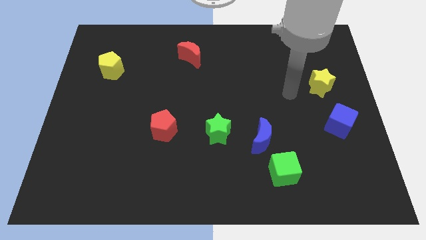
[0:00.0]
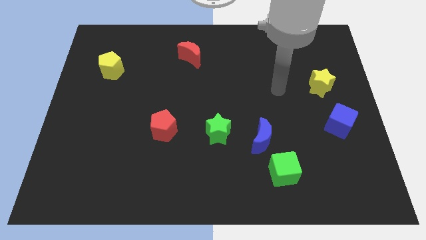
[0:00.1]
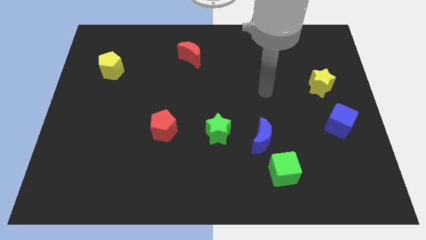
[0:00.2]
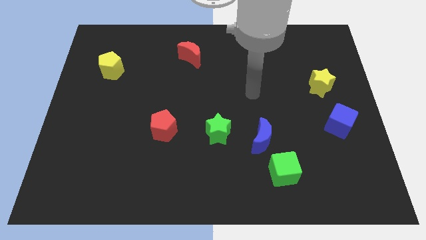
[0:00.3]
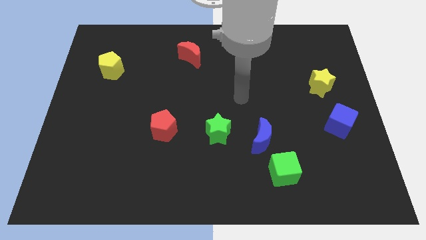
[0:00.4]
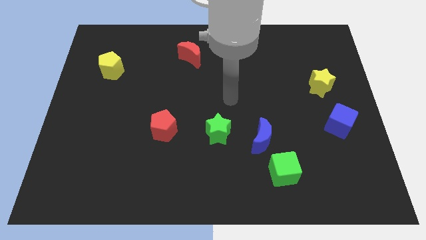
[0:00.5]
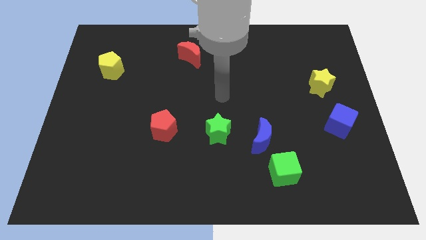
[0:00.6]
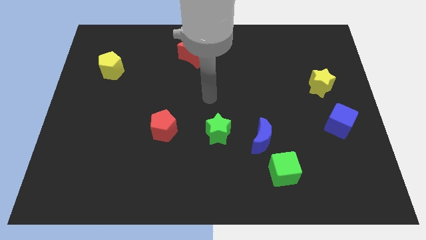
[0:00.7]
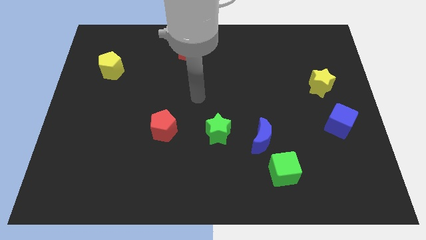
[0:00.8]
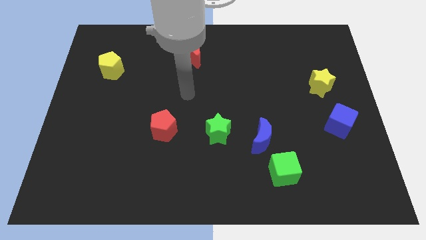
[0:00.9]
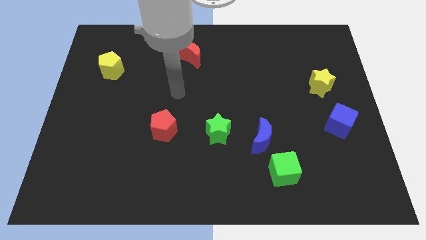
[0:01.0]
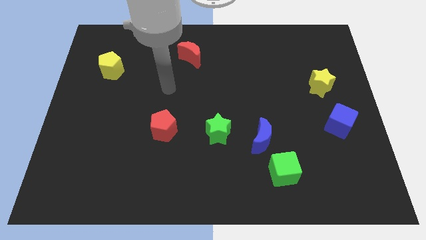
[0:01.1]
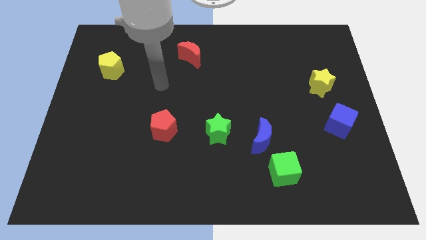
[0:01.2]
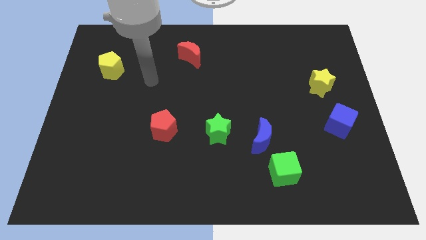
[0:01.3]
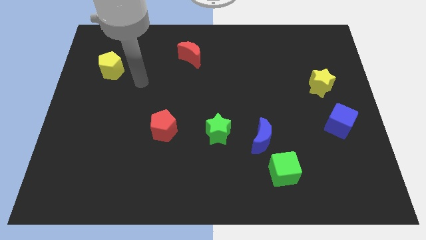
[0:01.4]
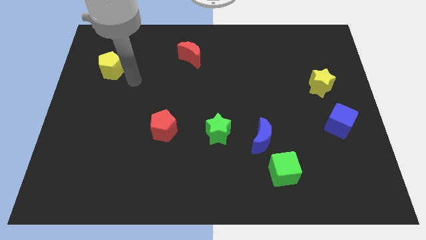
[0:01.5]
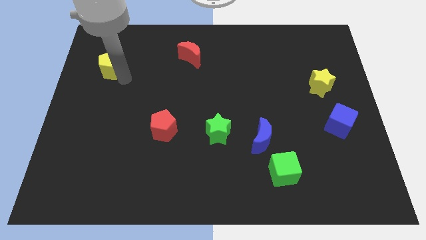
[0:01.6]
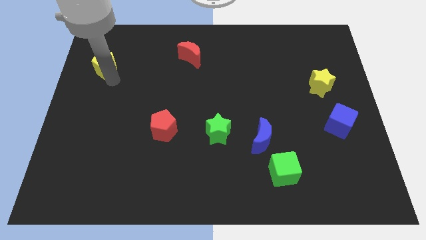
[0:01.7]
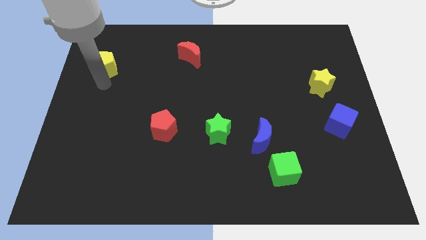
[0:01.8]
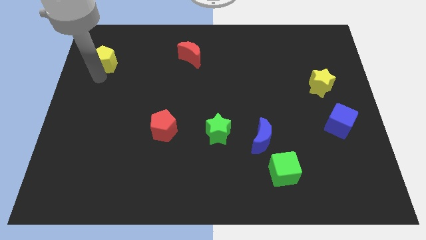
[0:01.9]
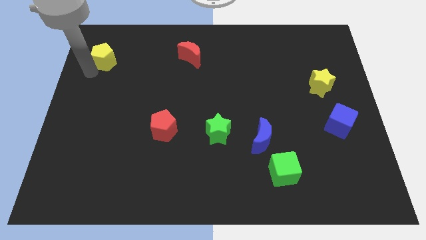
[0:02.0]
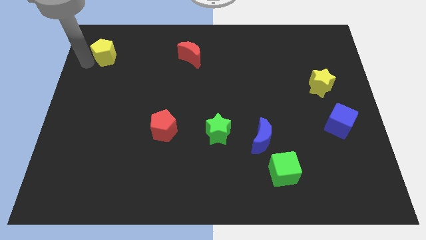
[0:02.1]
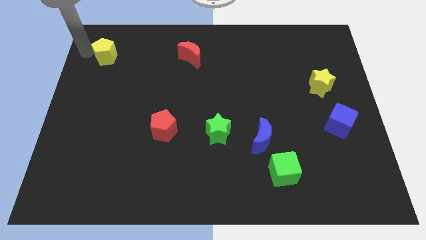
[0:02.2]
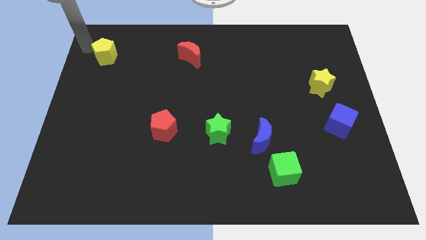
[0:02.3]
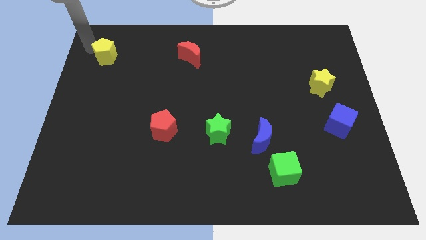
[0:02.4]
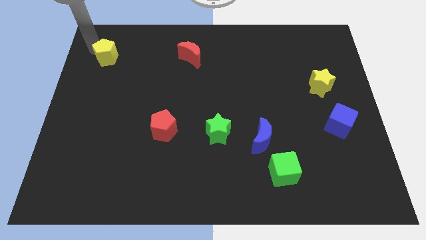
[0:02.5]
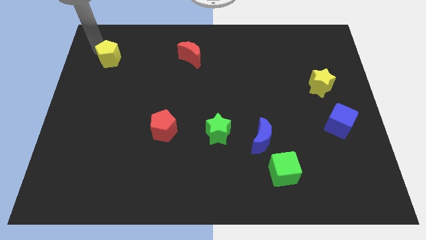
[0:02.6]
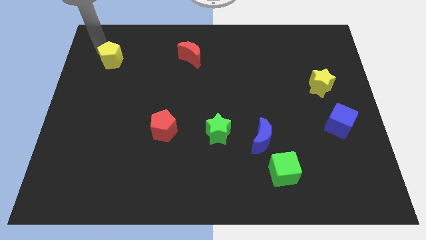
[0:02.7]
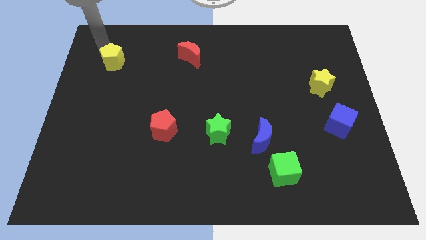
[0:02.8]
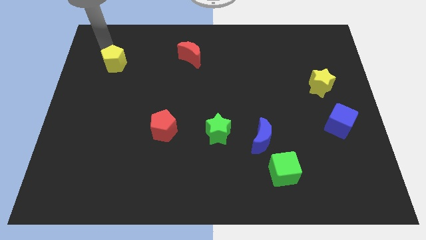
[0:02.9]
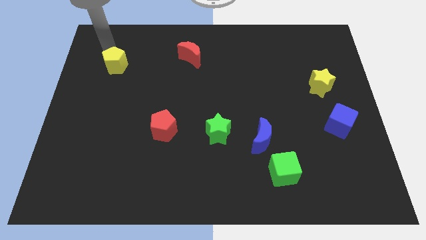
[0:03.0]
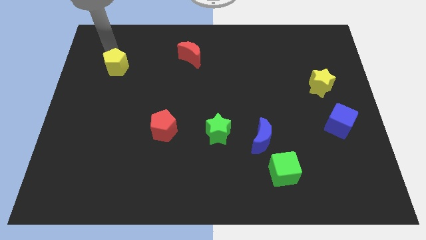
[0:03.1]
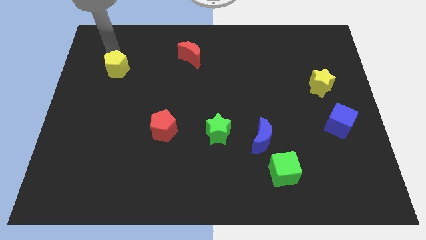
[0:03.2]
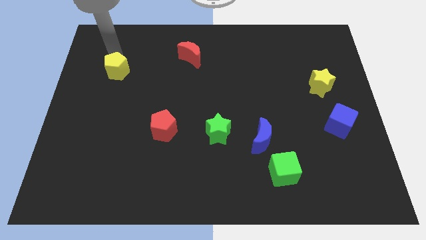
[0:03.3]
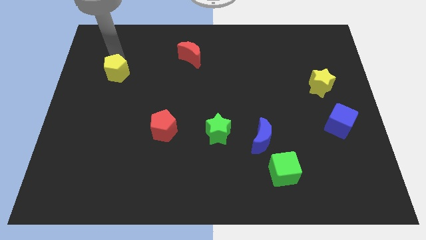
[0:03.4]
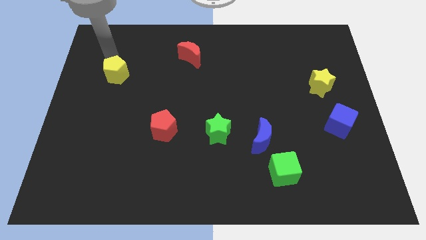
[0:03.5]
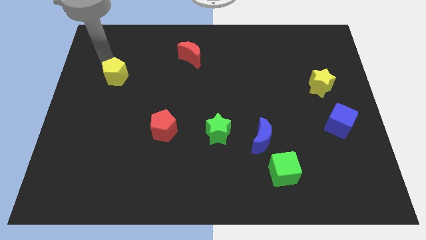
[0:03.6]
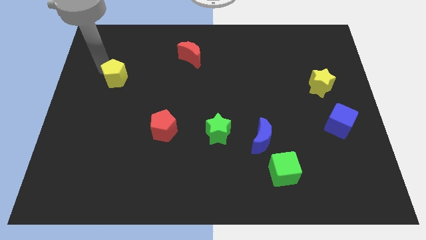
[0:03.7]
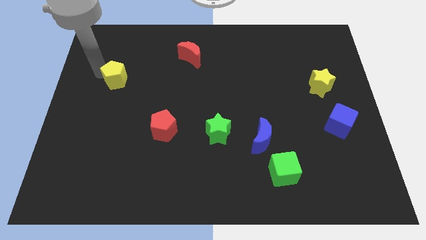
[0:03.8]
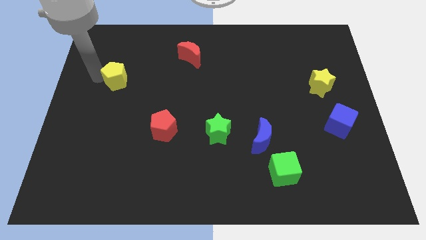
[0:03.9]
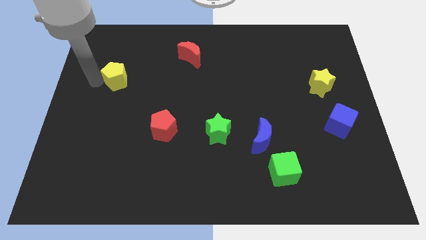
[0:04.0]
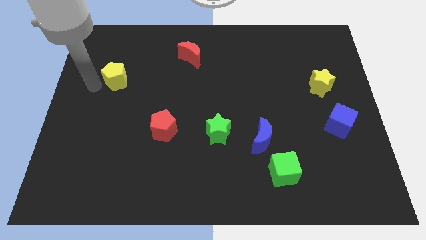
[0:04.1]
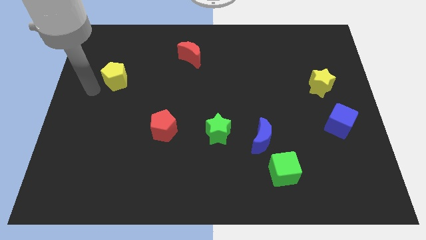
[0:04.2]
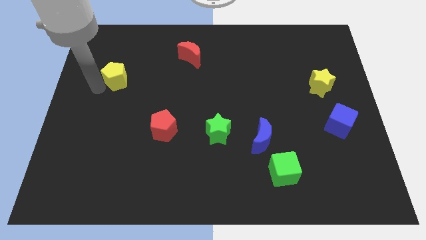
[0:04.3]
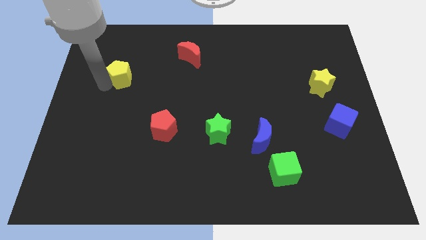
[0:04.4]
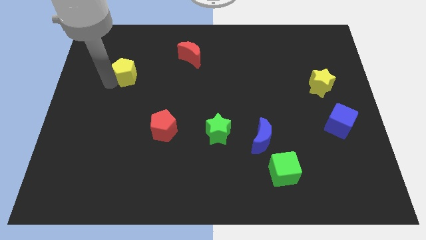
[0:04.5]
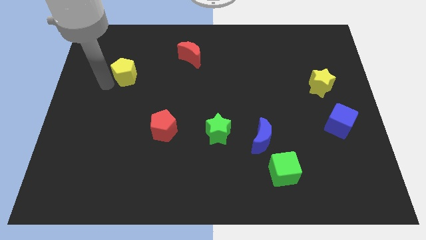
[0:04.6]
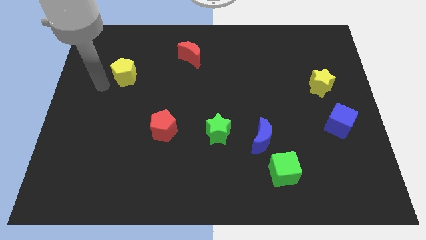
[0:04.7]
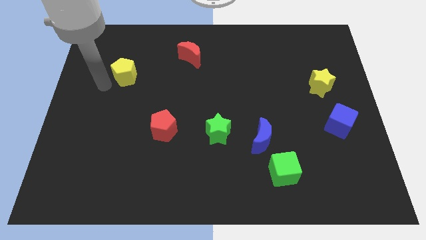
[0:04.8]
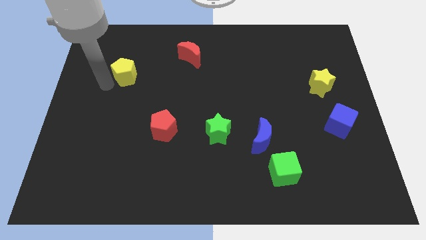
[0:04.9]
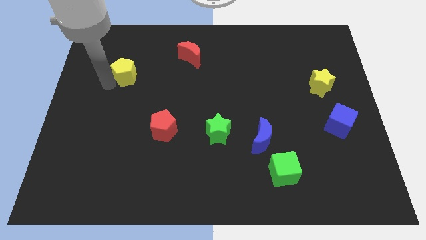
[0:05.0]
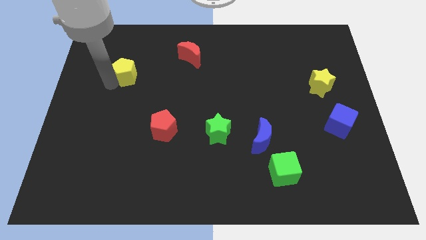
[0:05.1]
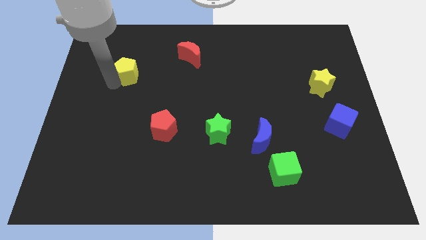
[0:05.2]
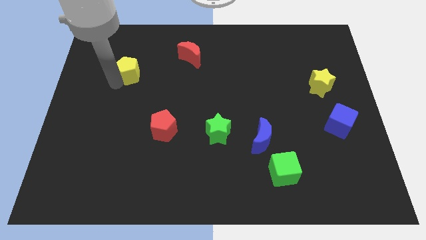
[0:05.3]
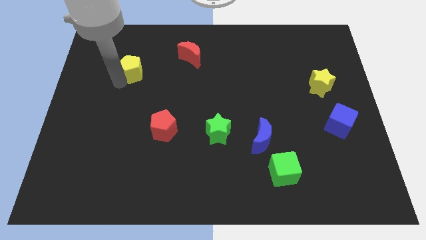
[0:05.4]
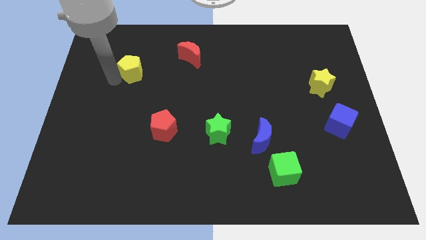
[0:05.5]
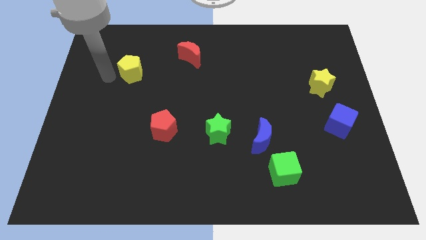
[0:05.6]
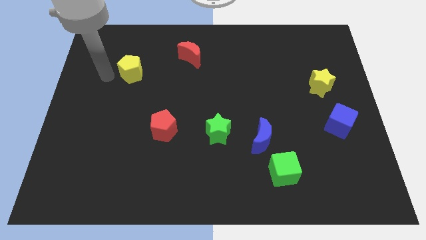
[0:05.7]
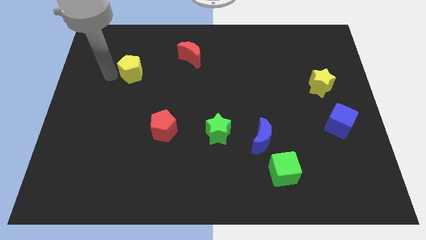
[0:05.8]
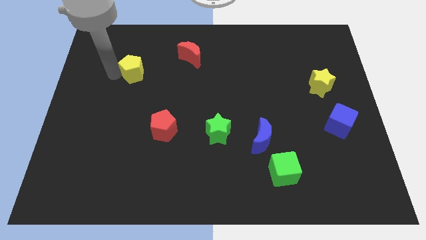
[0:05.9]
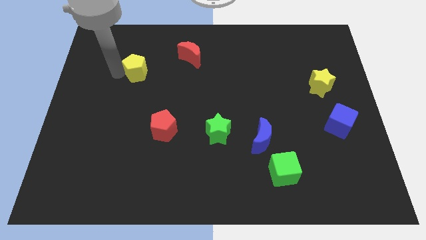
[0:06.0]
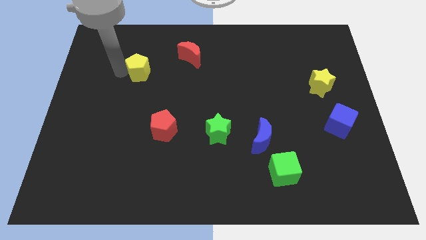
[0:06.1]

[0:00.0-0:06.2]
slide the yellow pentagon right somewhat

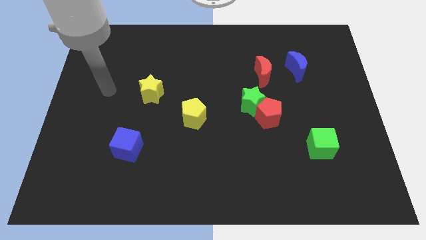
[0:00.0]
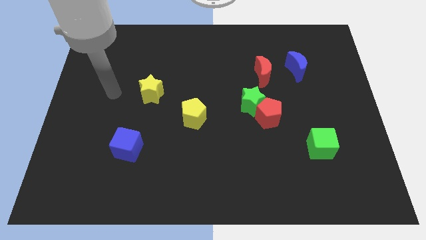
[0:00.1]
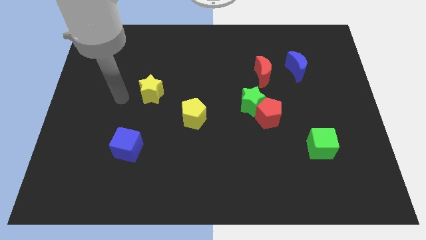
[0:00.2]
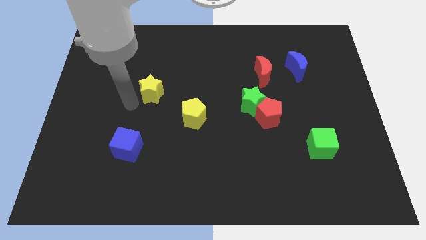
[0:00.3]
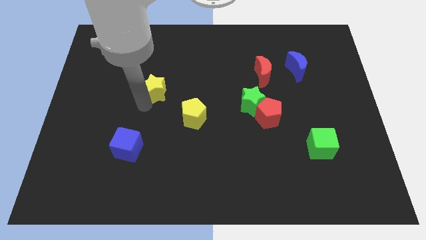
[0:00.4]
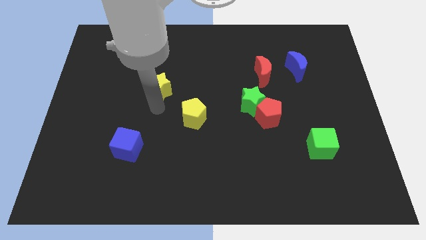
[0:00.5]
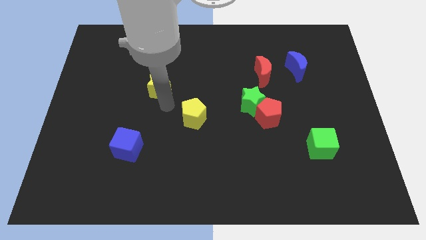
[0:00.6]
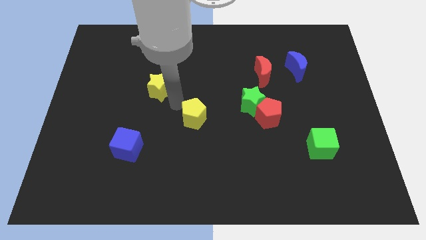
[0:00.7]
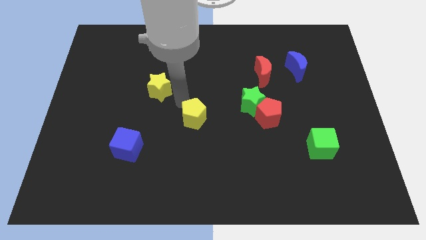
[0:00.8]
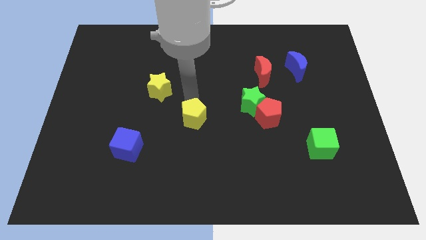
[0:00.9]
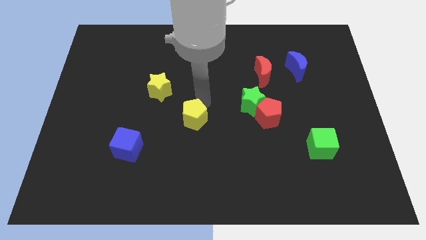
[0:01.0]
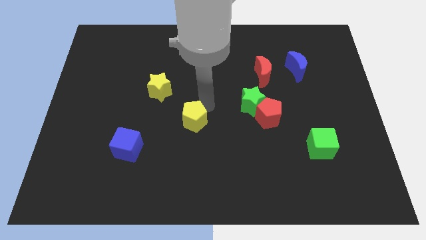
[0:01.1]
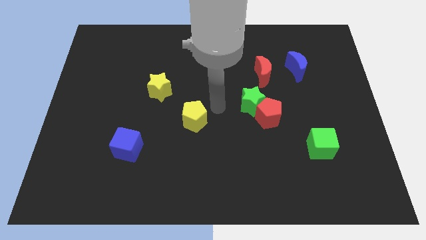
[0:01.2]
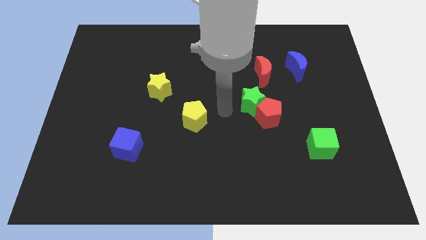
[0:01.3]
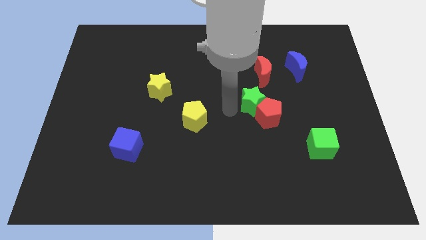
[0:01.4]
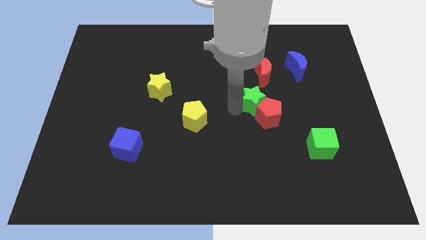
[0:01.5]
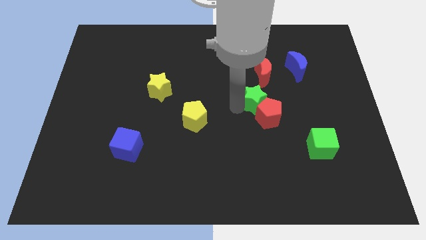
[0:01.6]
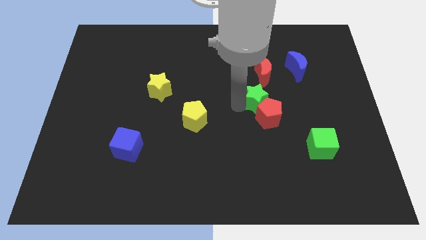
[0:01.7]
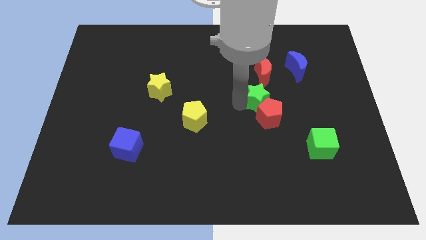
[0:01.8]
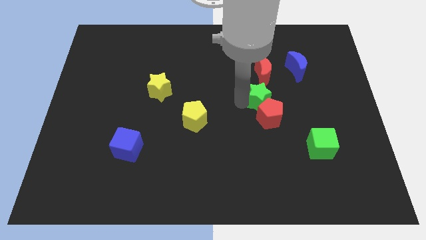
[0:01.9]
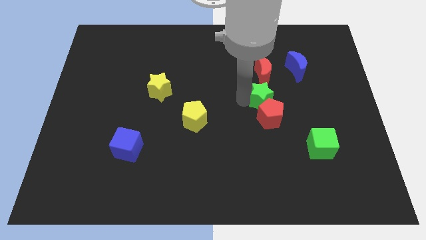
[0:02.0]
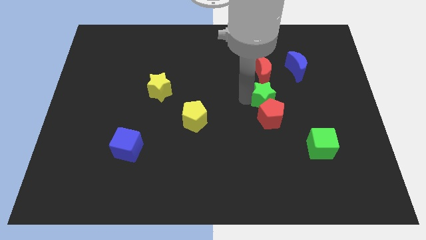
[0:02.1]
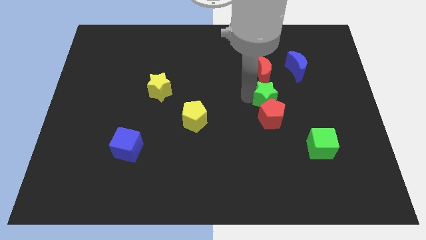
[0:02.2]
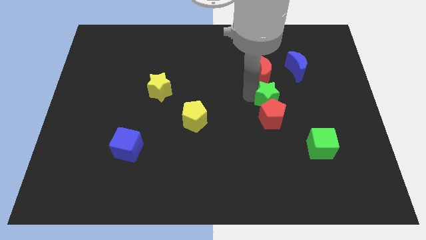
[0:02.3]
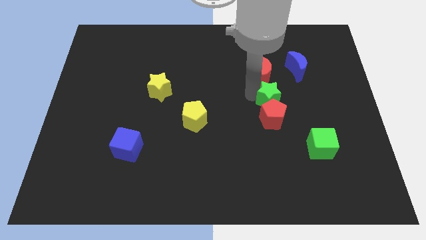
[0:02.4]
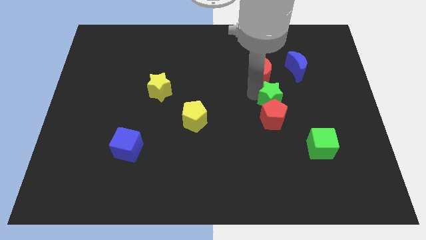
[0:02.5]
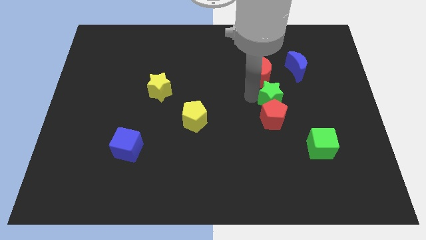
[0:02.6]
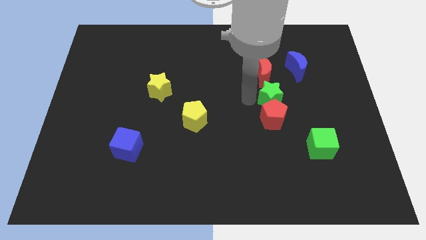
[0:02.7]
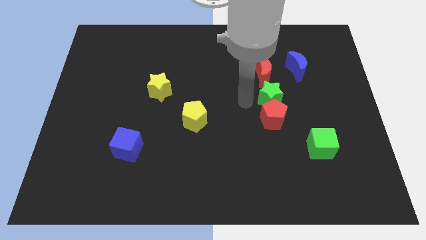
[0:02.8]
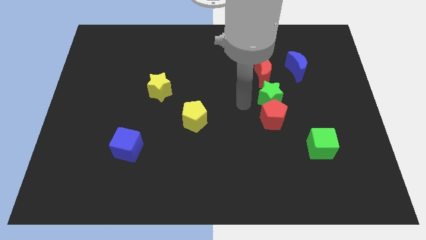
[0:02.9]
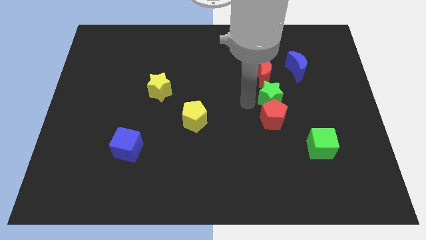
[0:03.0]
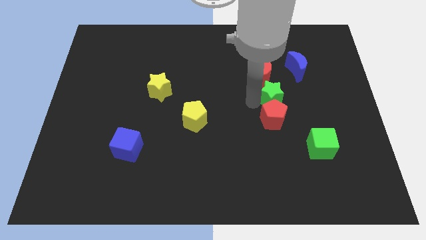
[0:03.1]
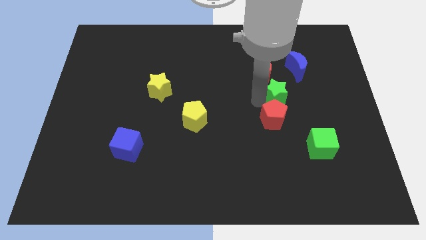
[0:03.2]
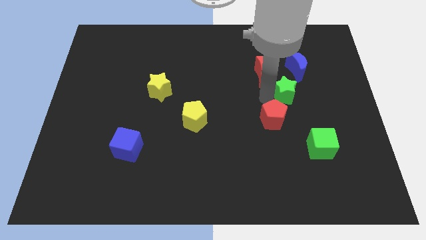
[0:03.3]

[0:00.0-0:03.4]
move the green star right a little
